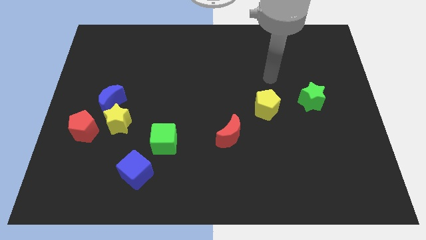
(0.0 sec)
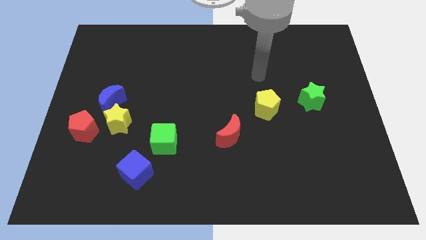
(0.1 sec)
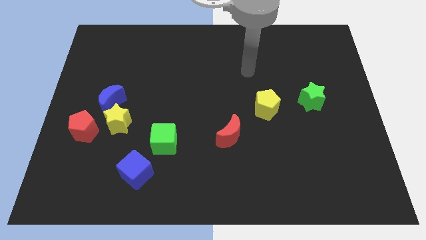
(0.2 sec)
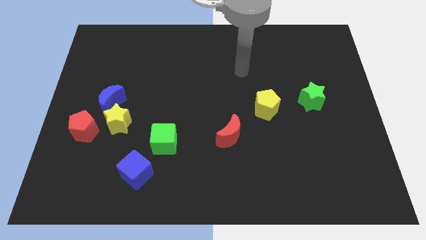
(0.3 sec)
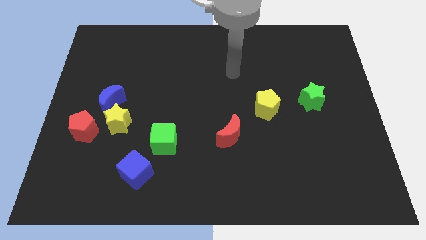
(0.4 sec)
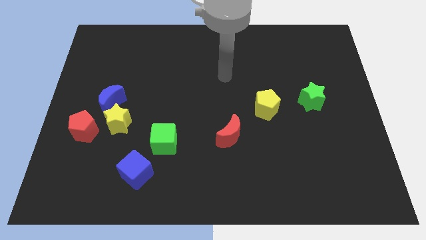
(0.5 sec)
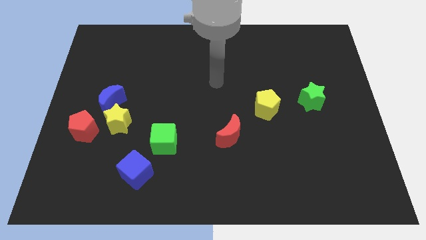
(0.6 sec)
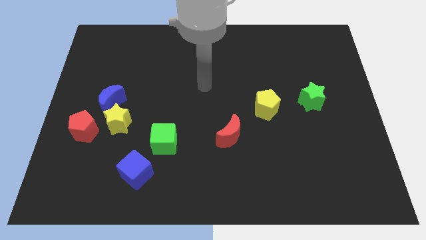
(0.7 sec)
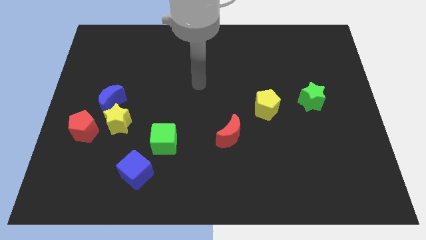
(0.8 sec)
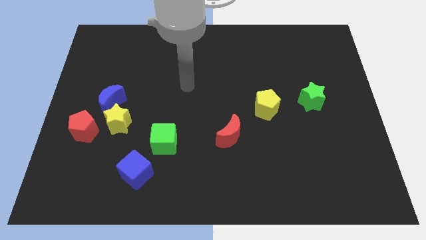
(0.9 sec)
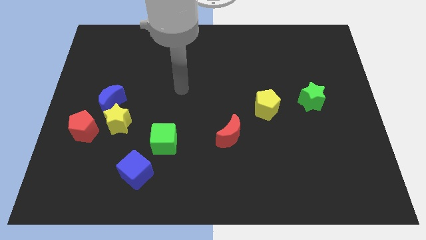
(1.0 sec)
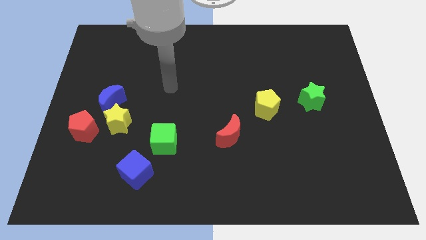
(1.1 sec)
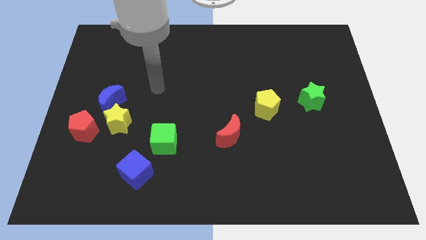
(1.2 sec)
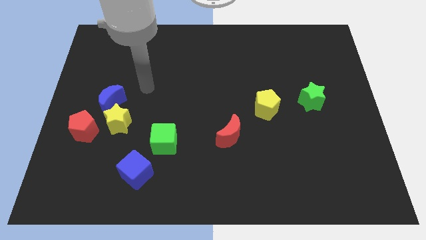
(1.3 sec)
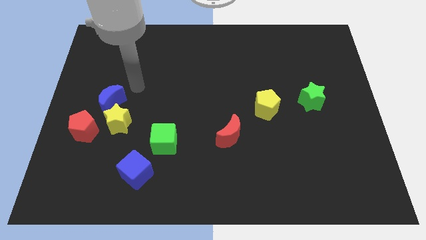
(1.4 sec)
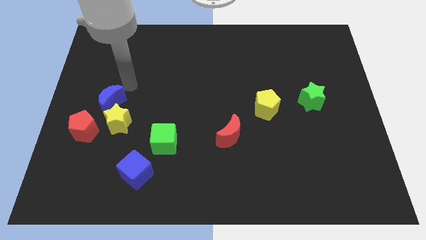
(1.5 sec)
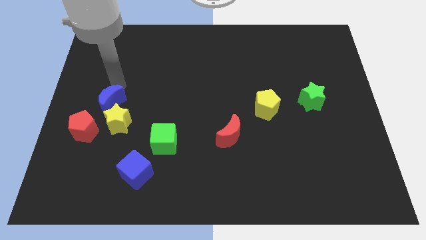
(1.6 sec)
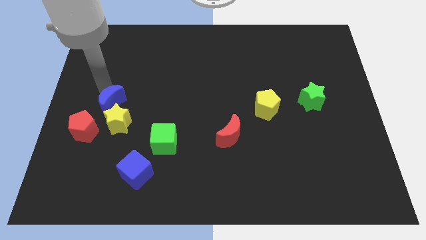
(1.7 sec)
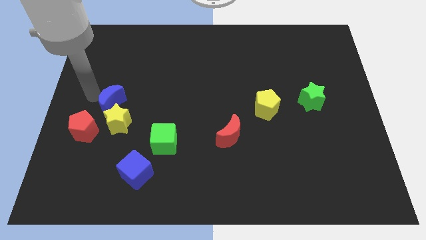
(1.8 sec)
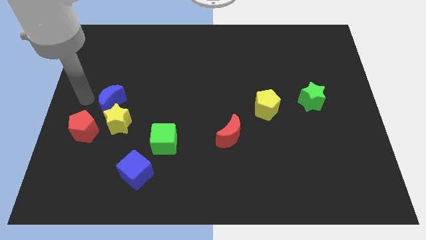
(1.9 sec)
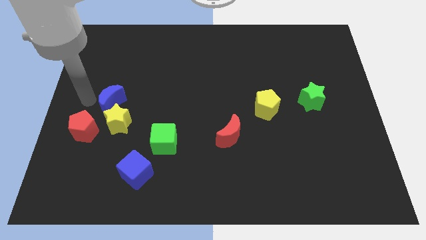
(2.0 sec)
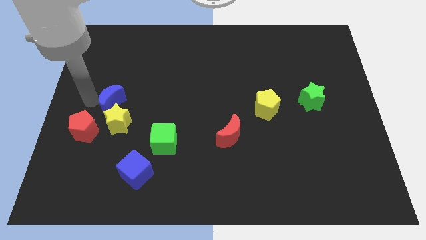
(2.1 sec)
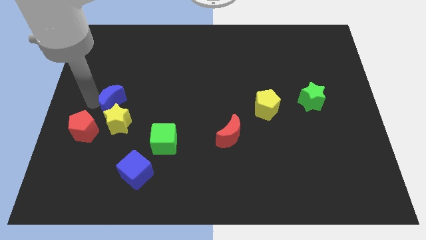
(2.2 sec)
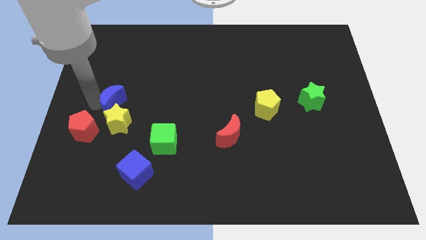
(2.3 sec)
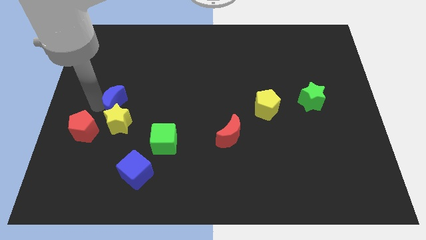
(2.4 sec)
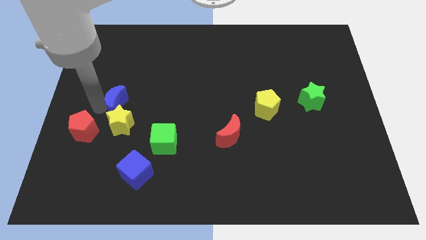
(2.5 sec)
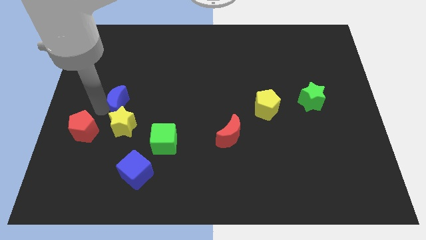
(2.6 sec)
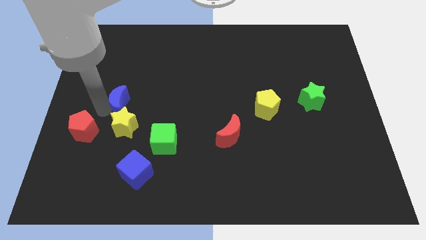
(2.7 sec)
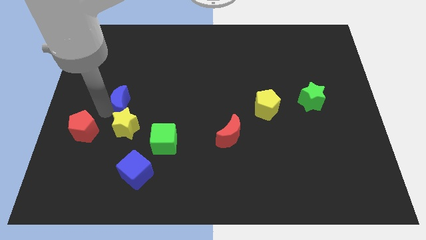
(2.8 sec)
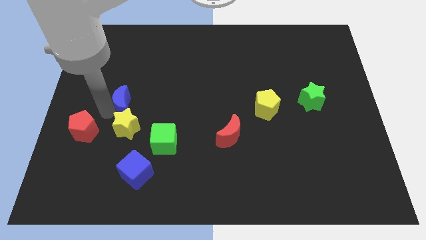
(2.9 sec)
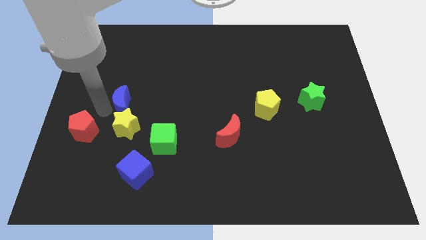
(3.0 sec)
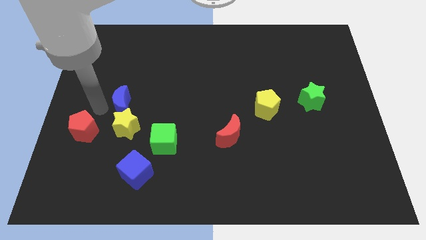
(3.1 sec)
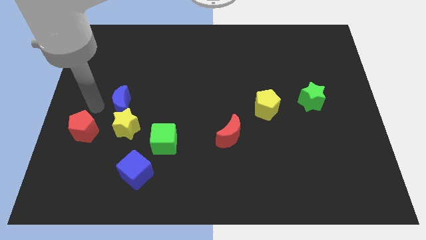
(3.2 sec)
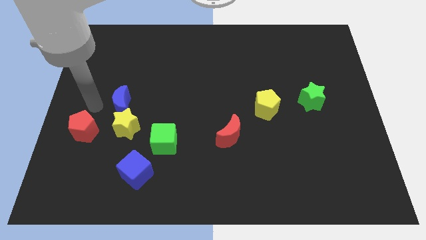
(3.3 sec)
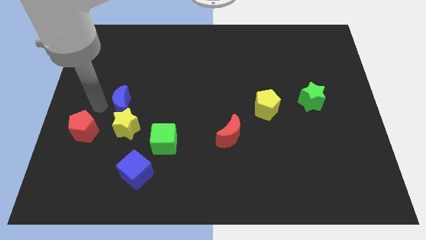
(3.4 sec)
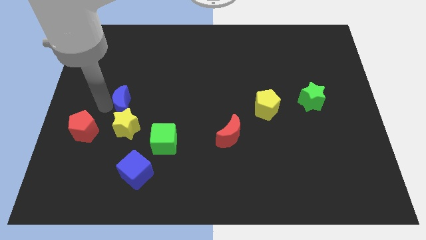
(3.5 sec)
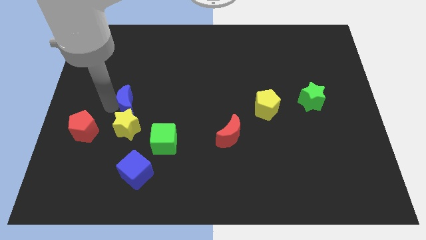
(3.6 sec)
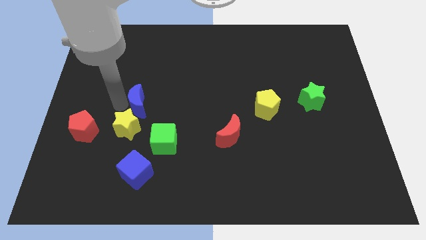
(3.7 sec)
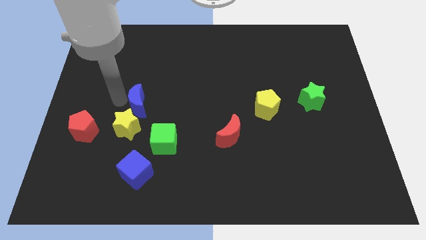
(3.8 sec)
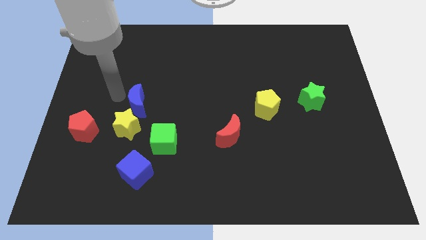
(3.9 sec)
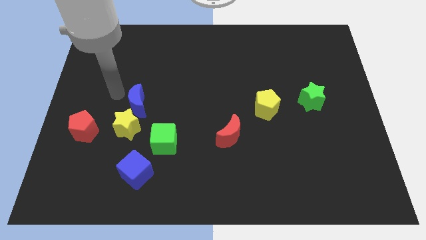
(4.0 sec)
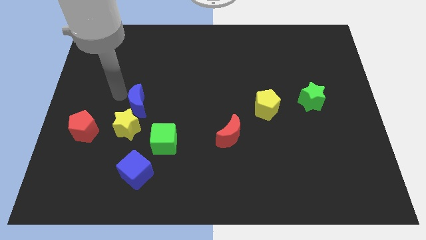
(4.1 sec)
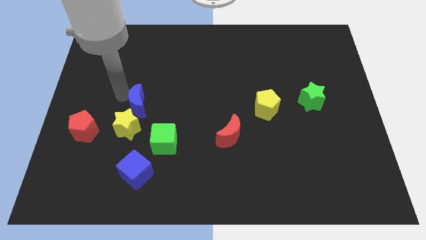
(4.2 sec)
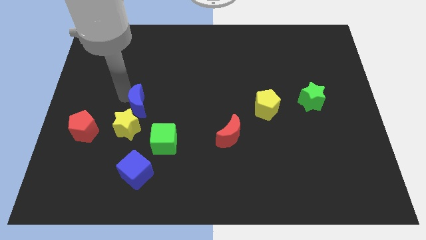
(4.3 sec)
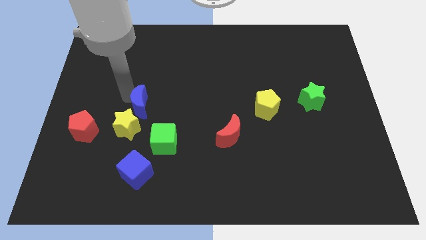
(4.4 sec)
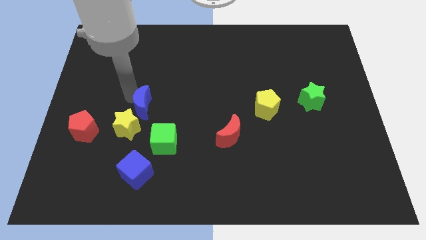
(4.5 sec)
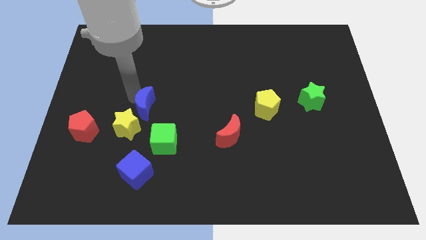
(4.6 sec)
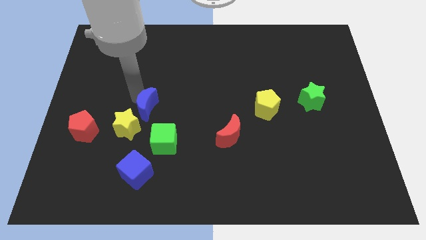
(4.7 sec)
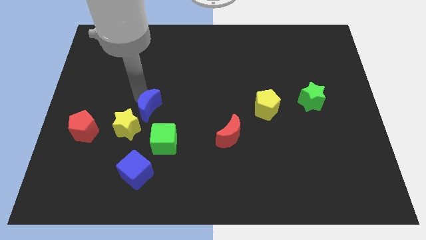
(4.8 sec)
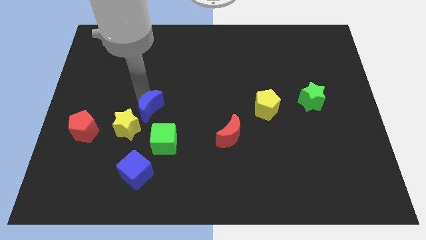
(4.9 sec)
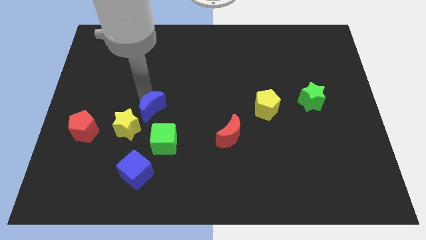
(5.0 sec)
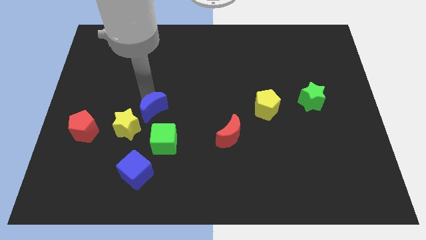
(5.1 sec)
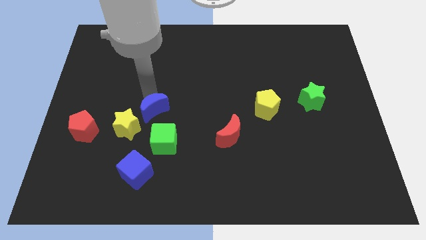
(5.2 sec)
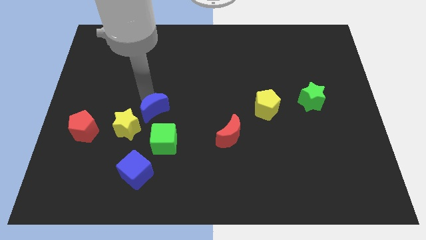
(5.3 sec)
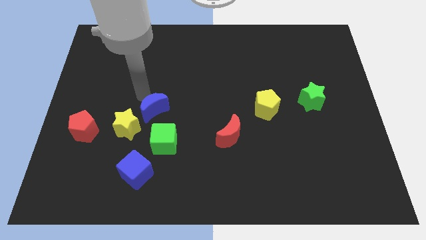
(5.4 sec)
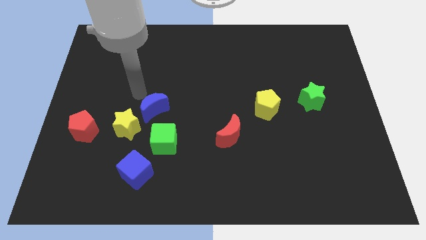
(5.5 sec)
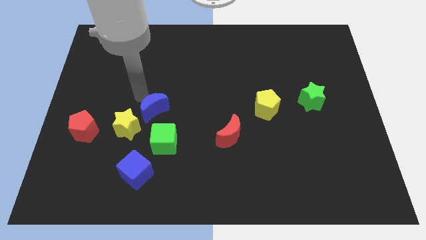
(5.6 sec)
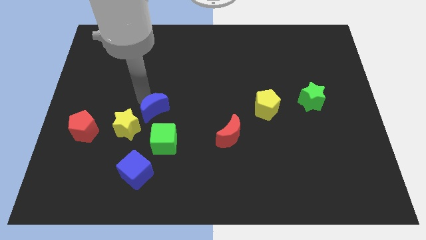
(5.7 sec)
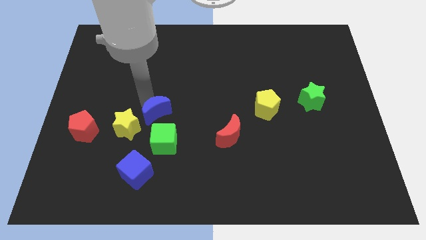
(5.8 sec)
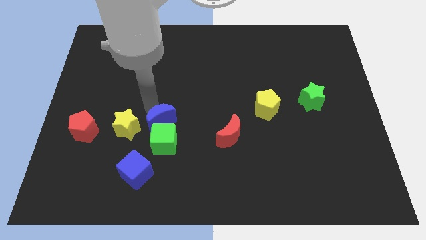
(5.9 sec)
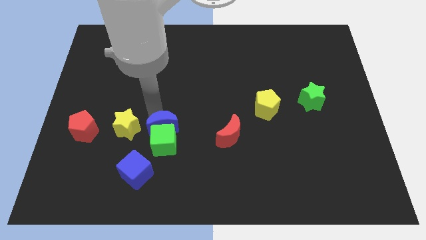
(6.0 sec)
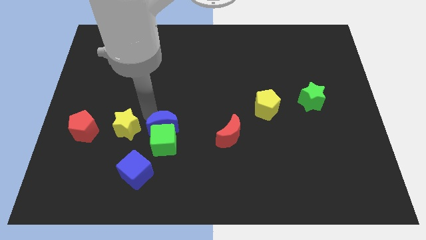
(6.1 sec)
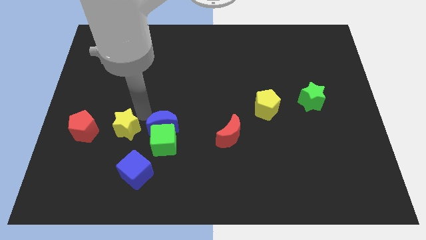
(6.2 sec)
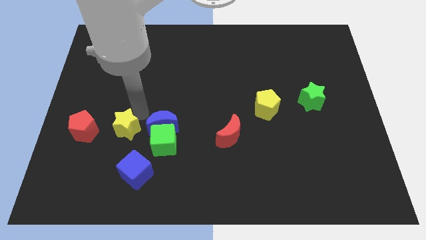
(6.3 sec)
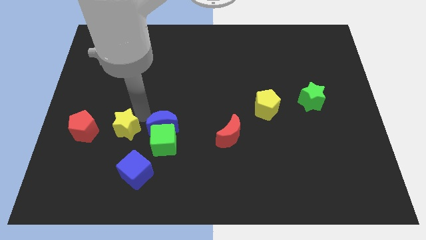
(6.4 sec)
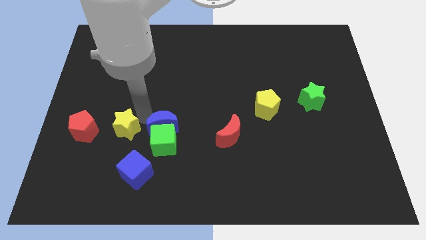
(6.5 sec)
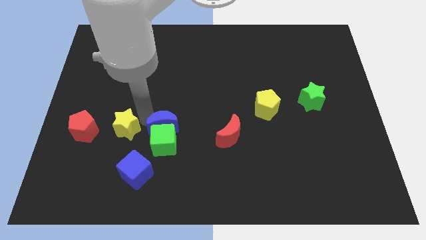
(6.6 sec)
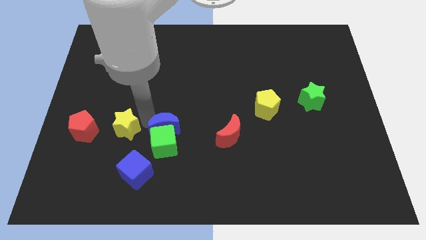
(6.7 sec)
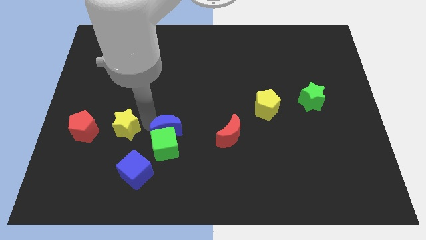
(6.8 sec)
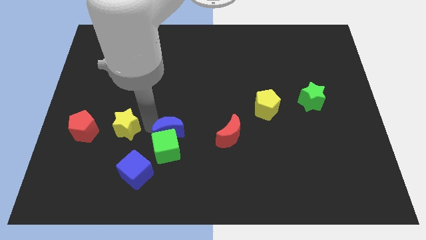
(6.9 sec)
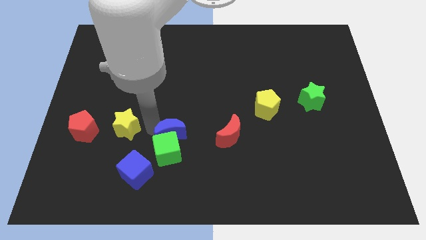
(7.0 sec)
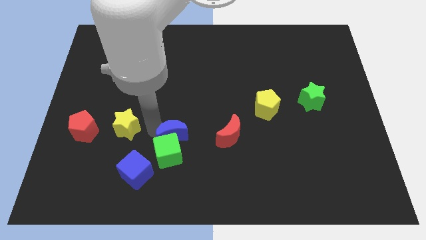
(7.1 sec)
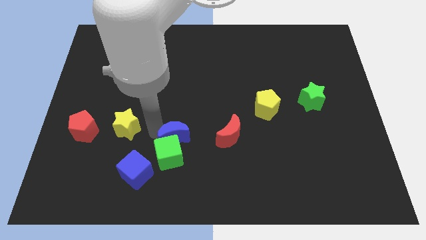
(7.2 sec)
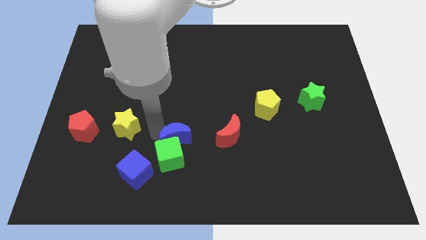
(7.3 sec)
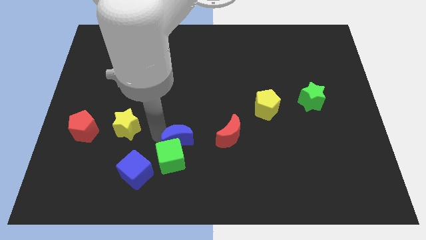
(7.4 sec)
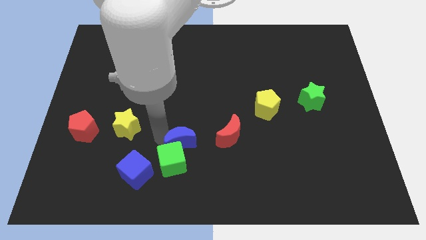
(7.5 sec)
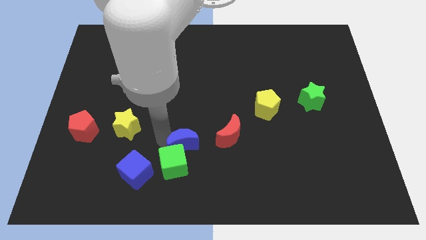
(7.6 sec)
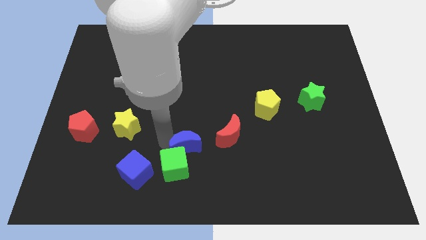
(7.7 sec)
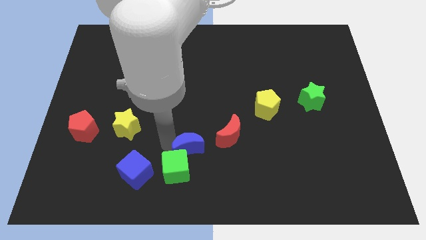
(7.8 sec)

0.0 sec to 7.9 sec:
move the blue moon to the bottom left of the red moon
